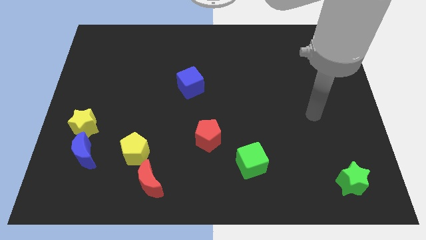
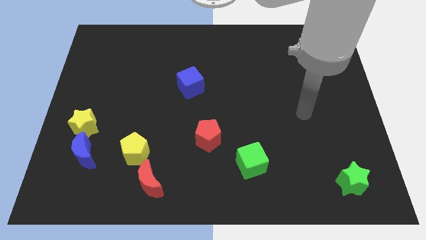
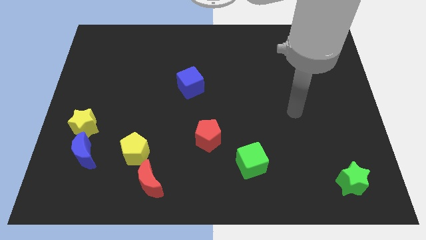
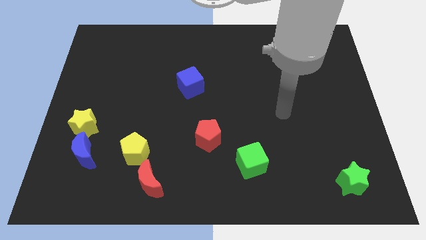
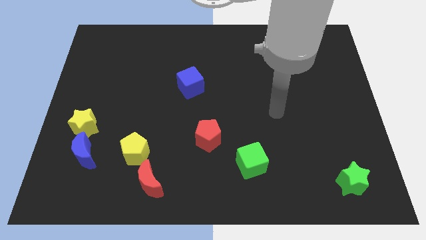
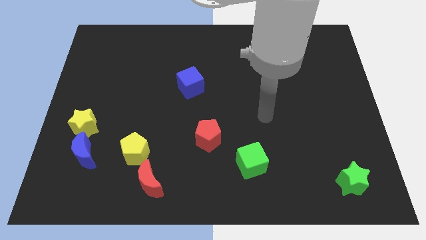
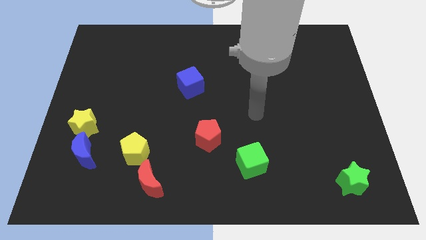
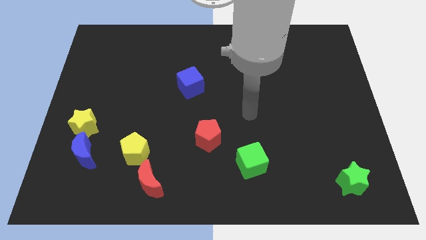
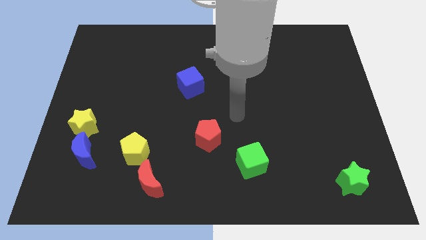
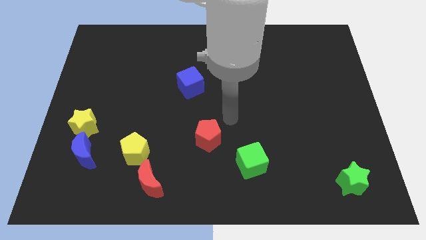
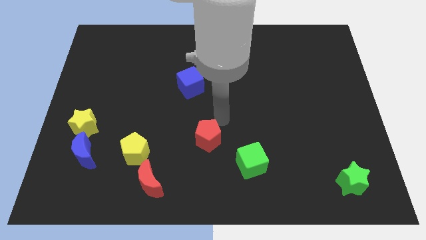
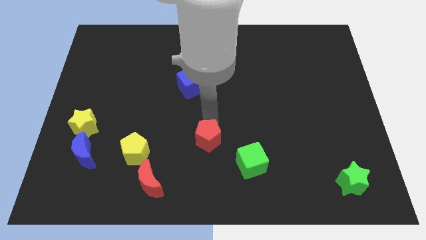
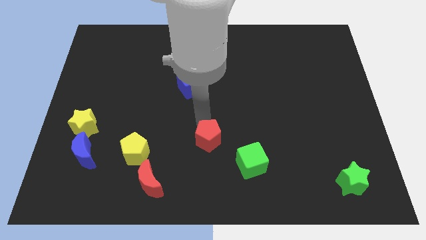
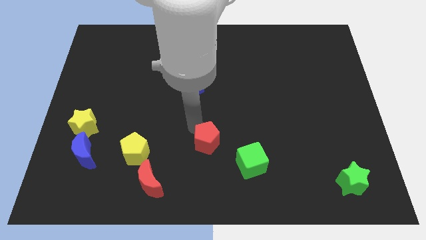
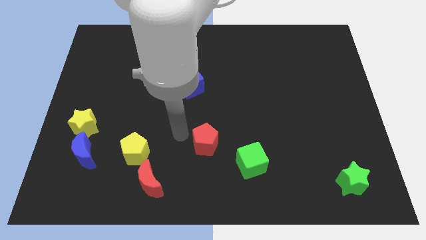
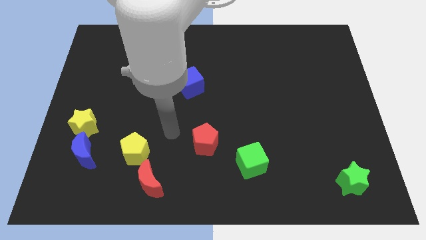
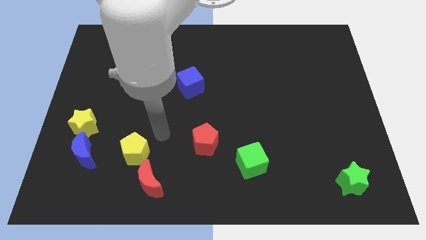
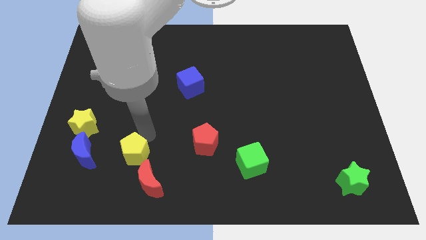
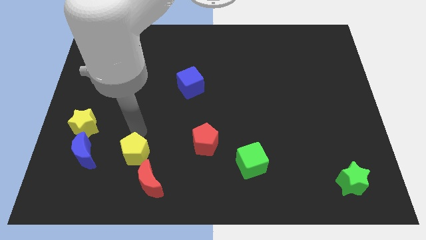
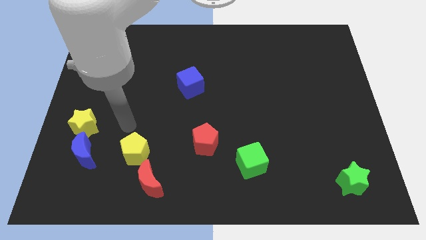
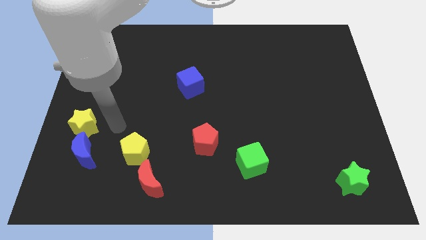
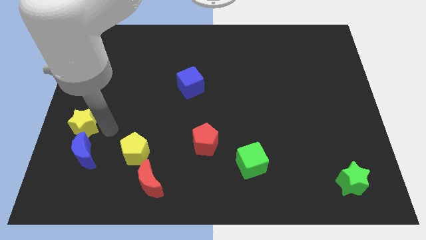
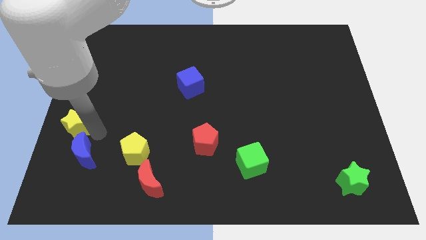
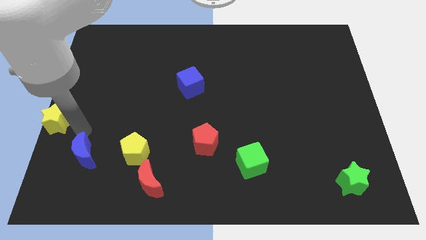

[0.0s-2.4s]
separate the blue moon from the yellow star

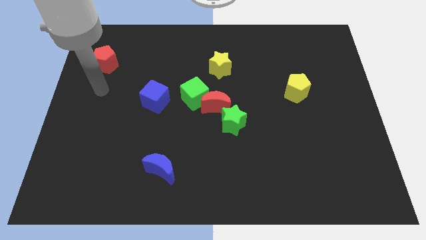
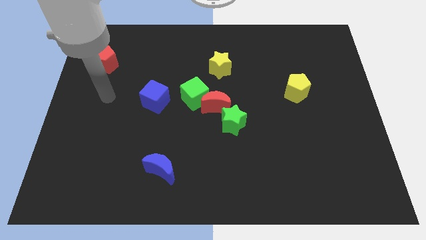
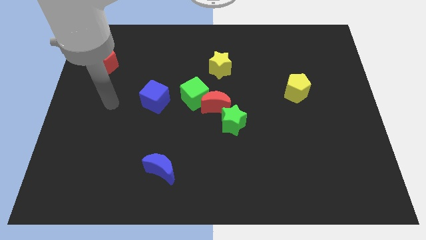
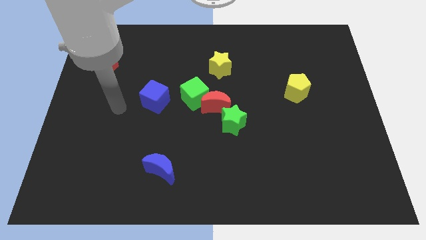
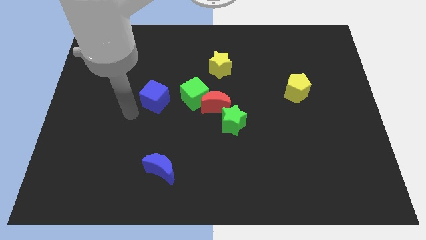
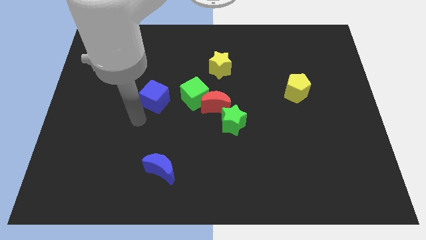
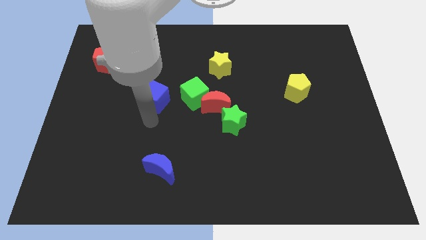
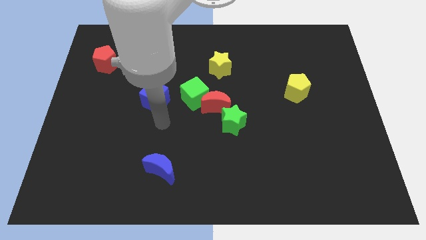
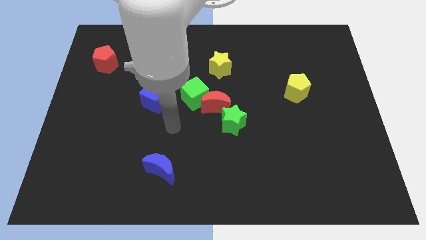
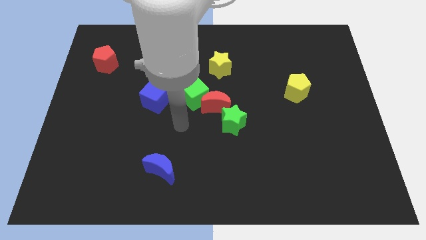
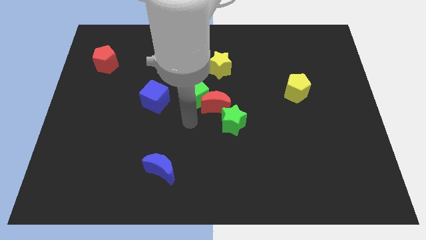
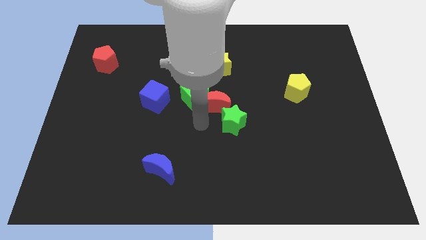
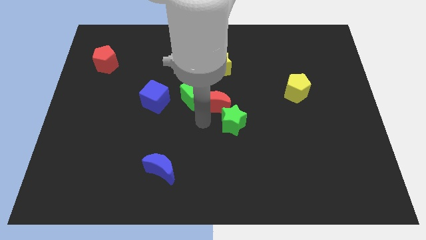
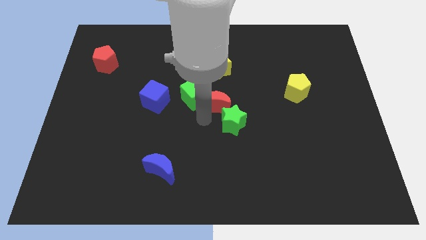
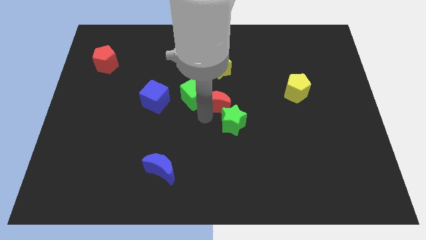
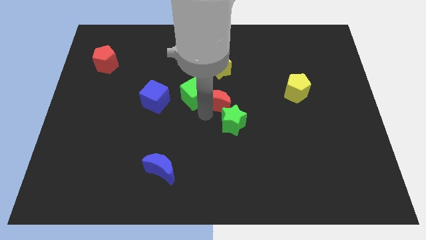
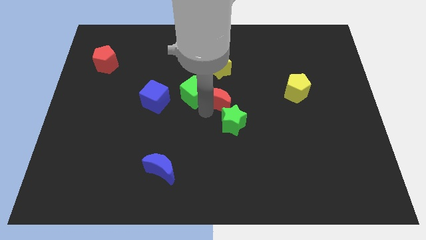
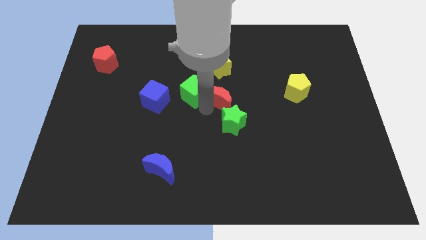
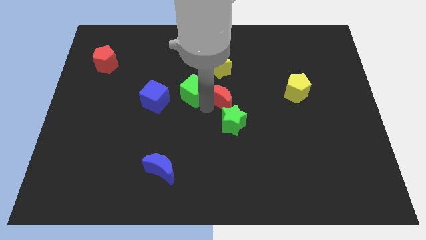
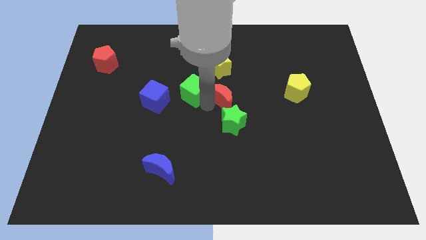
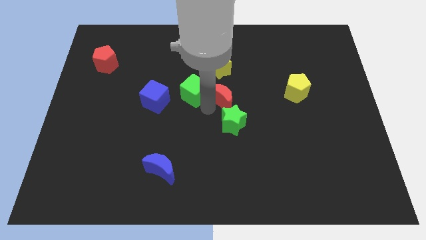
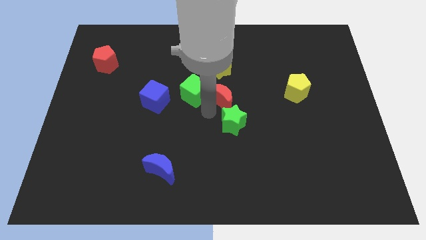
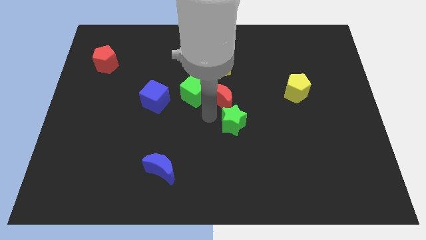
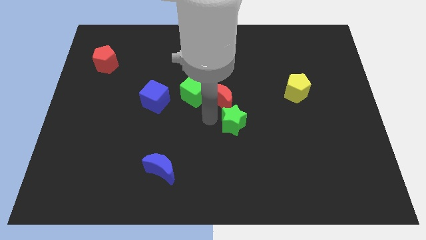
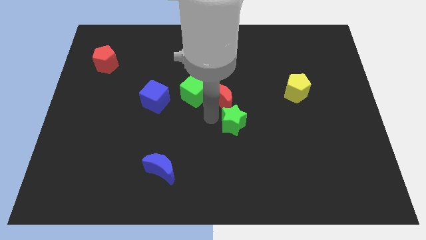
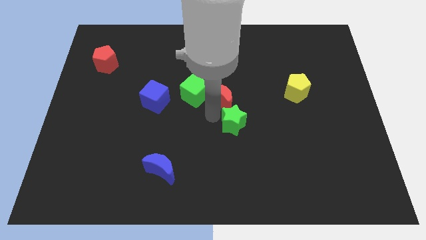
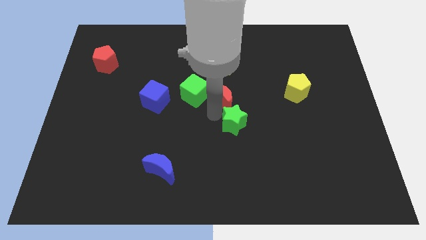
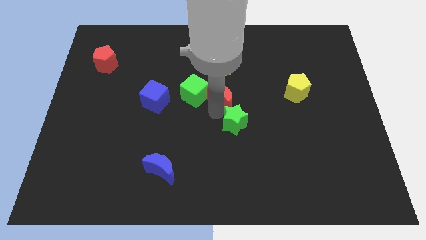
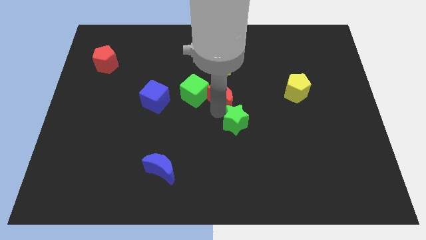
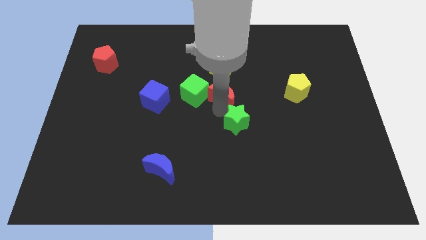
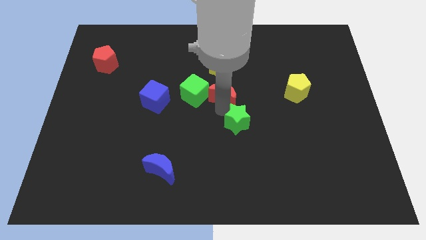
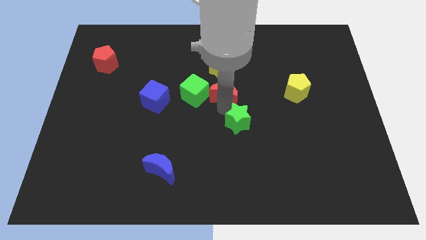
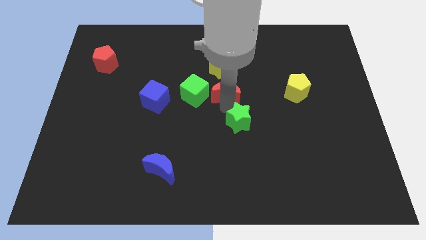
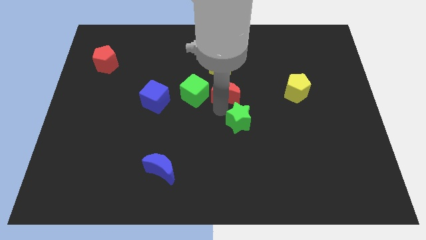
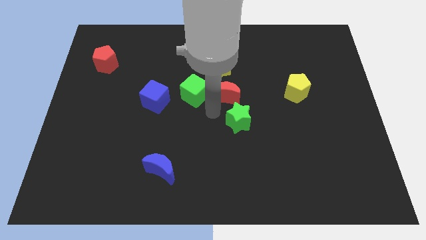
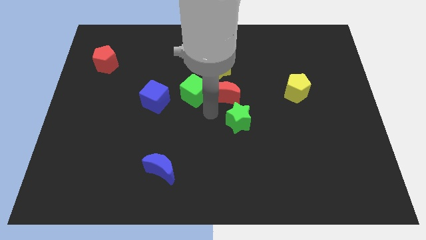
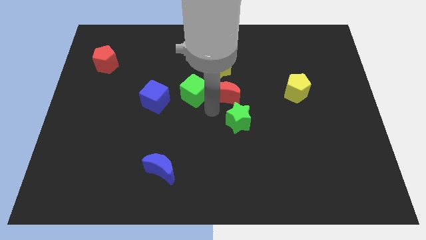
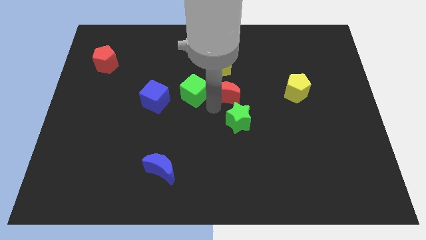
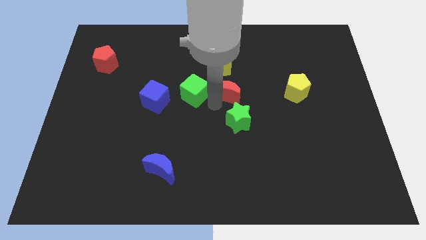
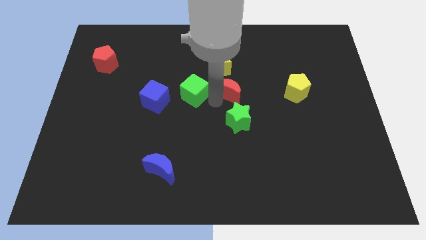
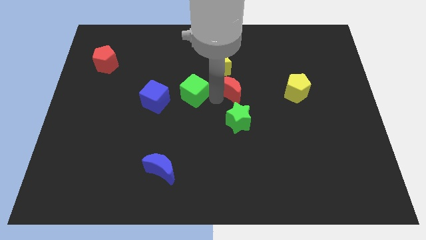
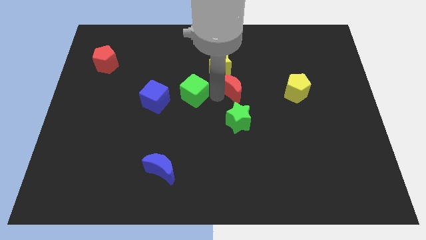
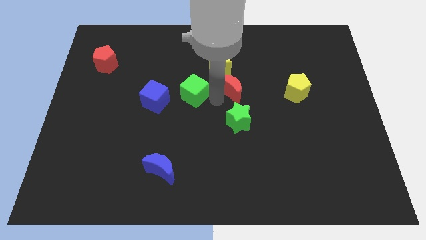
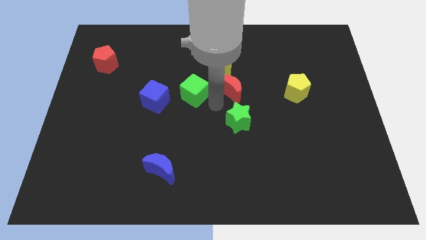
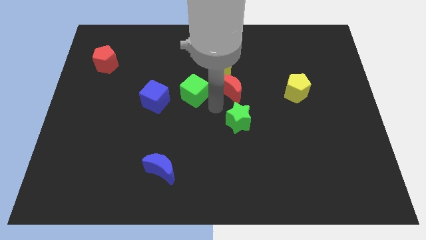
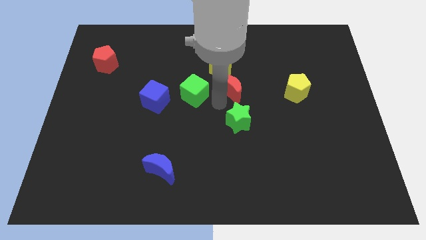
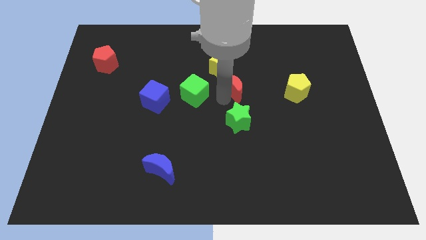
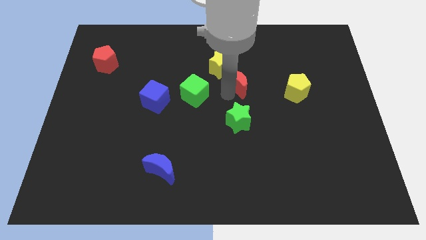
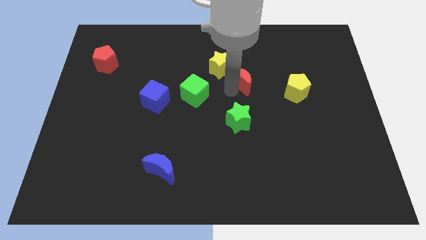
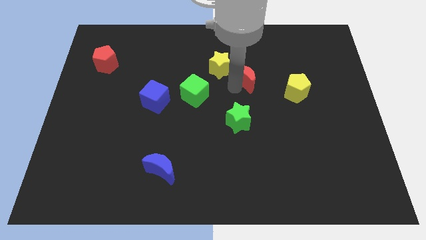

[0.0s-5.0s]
separate the red moon from the green cube and green star

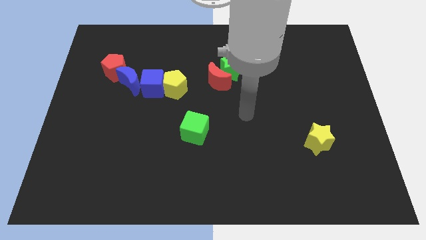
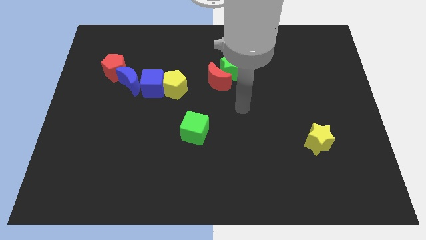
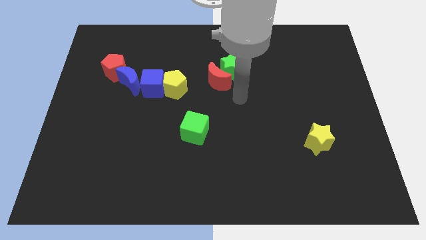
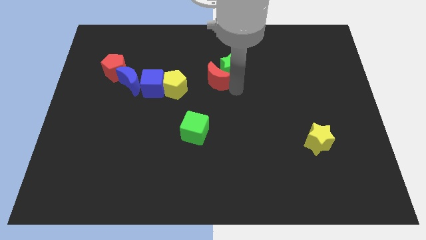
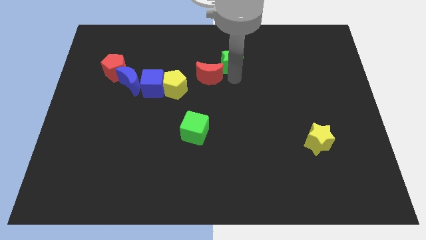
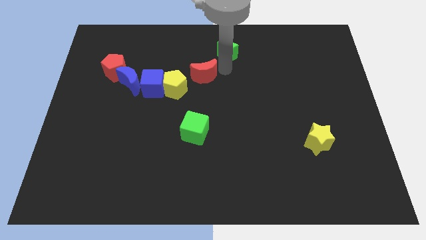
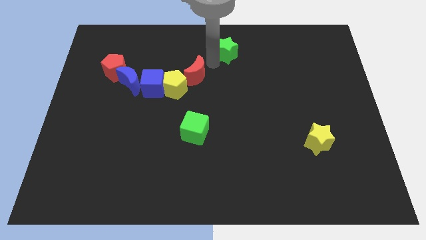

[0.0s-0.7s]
move the red moon away from the green star

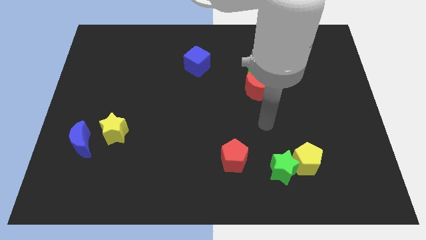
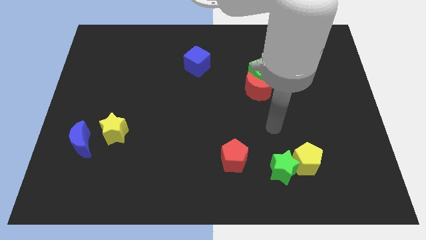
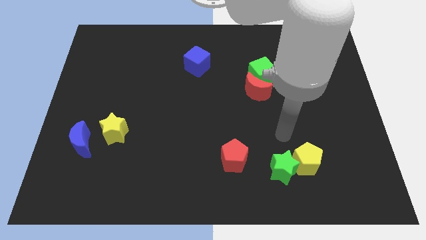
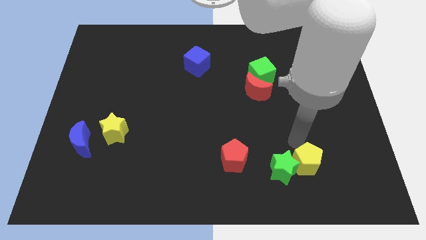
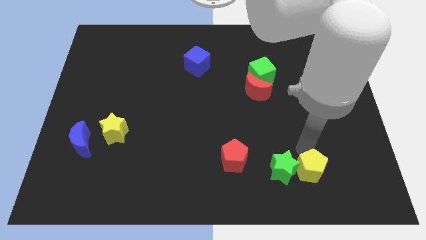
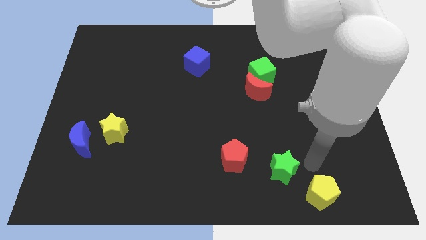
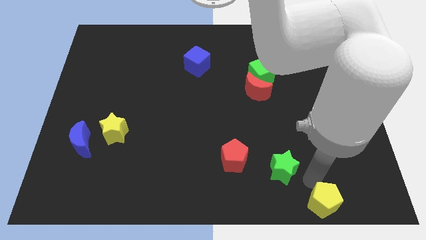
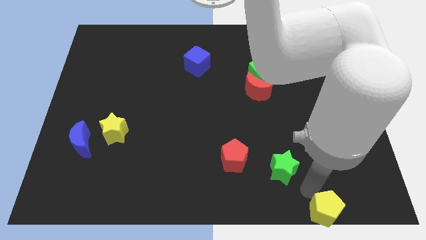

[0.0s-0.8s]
separate the green star from the yellow pentagon

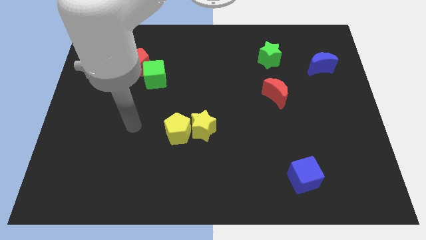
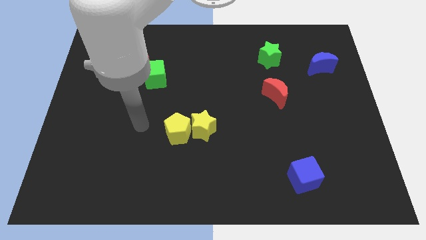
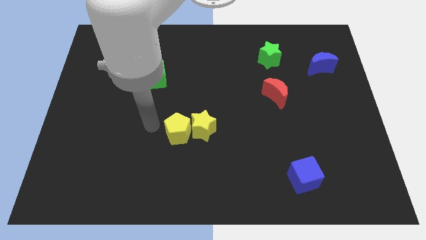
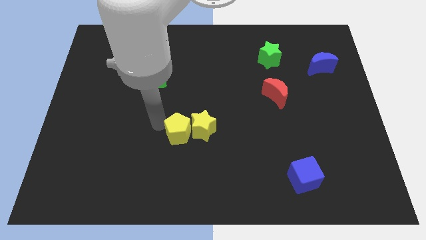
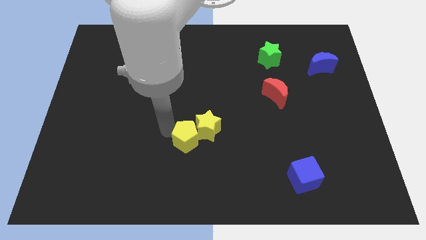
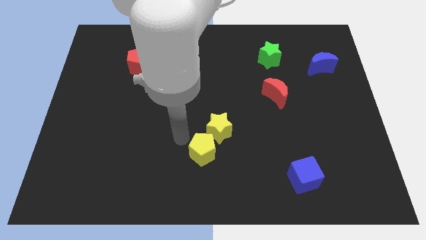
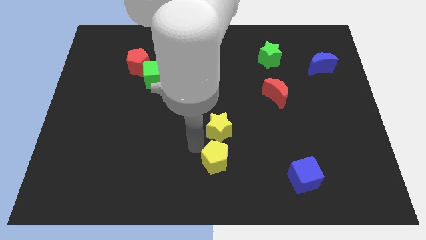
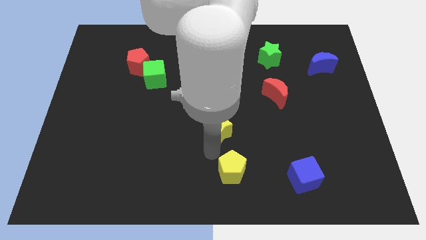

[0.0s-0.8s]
pull the yellow star apart from the yellow pentagon
